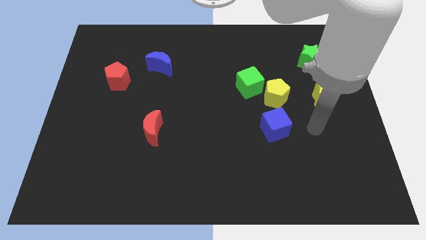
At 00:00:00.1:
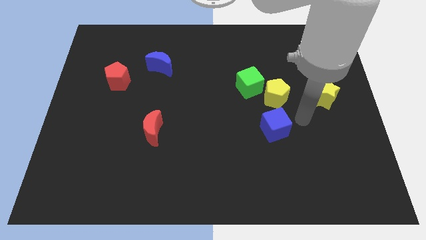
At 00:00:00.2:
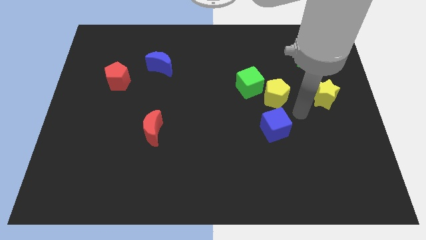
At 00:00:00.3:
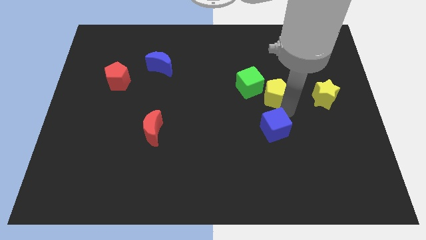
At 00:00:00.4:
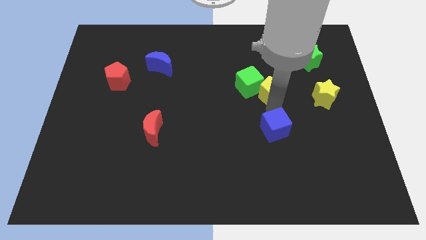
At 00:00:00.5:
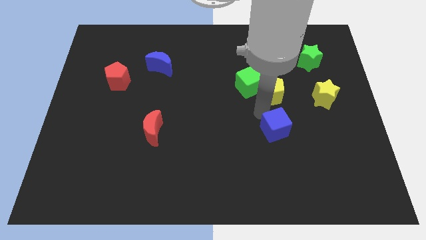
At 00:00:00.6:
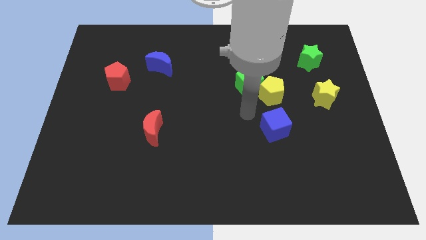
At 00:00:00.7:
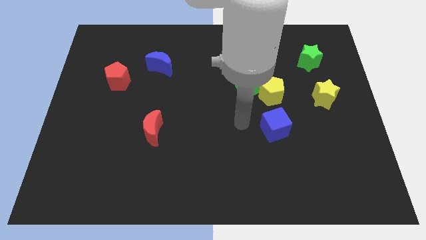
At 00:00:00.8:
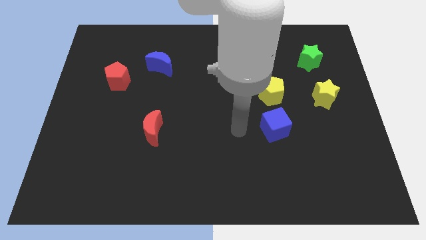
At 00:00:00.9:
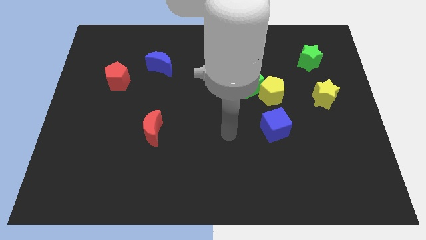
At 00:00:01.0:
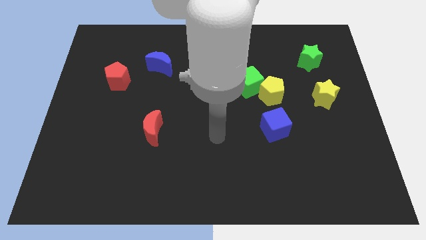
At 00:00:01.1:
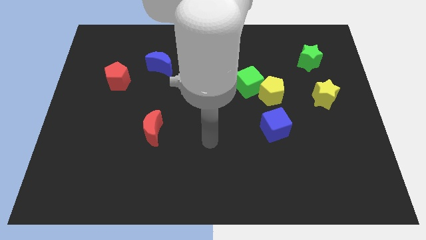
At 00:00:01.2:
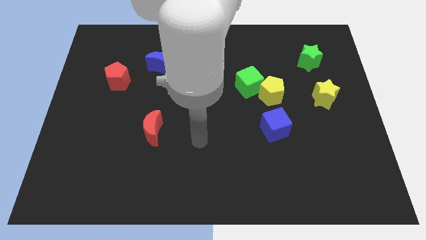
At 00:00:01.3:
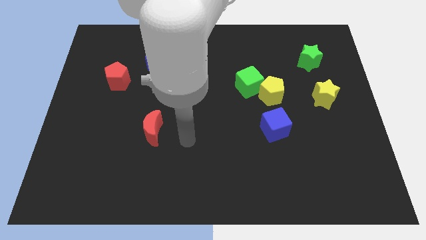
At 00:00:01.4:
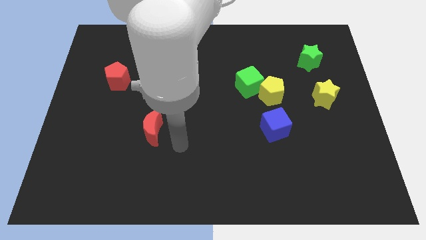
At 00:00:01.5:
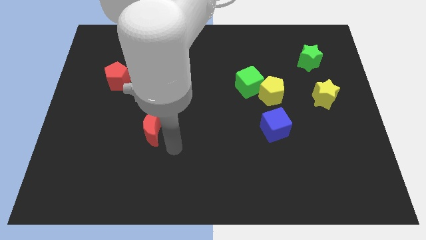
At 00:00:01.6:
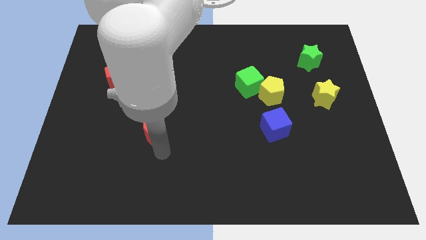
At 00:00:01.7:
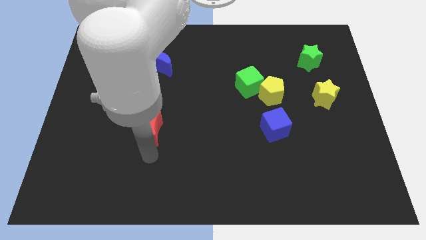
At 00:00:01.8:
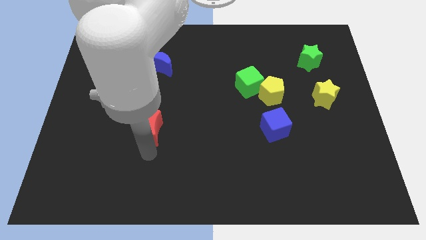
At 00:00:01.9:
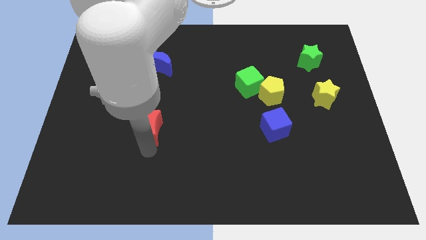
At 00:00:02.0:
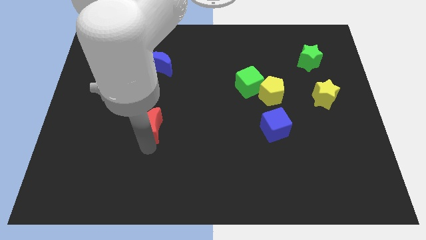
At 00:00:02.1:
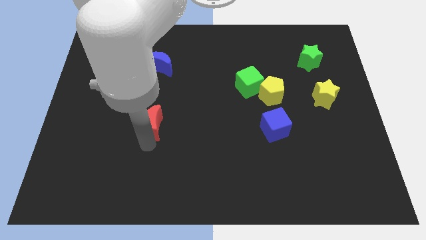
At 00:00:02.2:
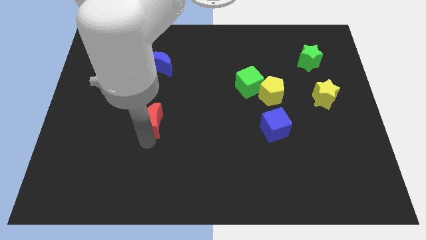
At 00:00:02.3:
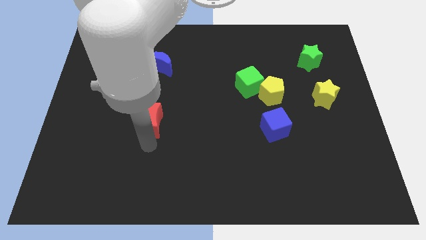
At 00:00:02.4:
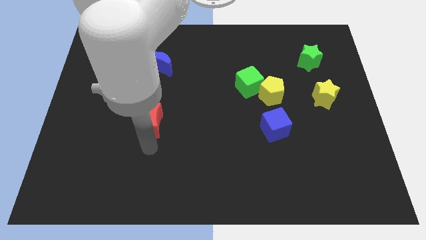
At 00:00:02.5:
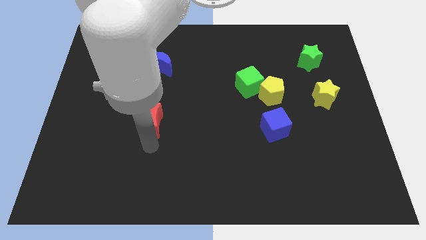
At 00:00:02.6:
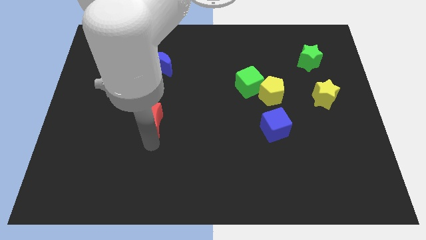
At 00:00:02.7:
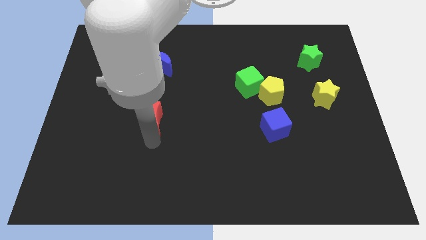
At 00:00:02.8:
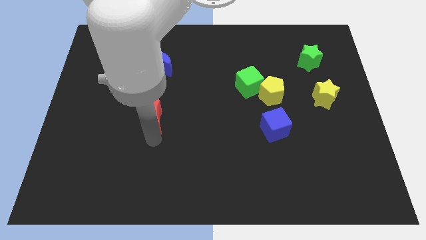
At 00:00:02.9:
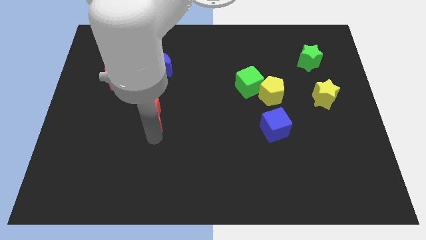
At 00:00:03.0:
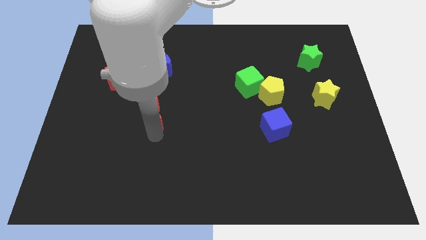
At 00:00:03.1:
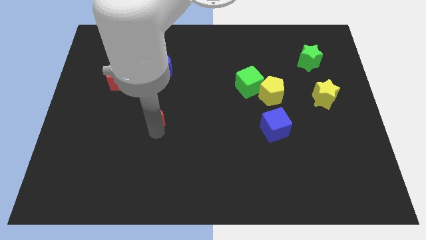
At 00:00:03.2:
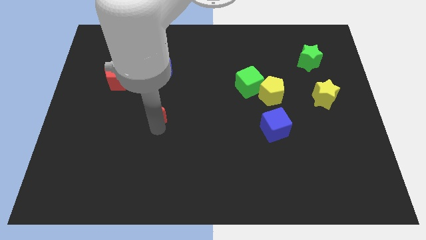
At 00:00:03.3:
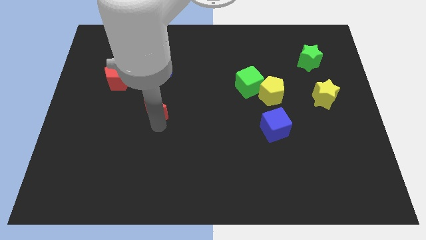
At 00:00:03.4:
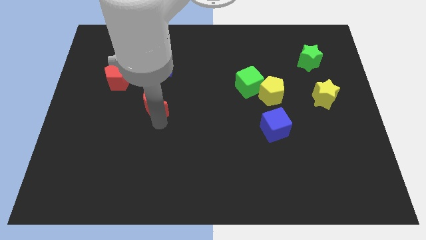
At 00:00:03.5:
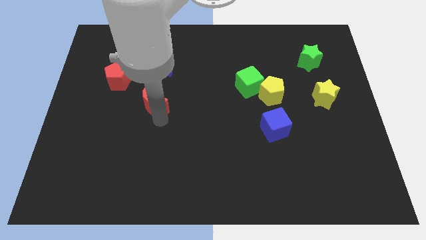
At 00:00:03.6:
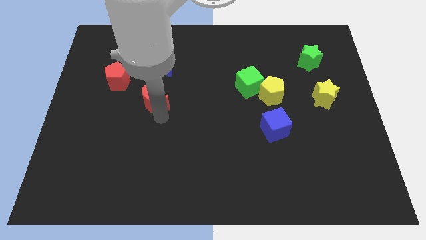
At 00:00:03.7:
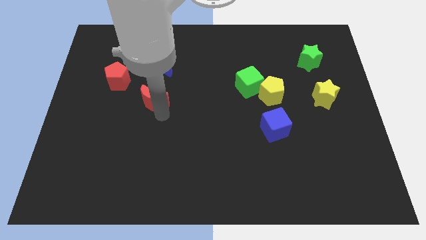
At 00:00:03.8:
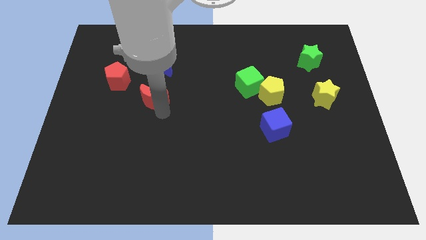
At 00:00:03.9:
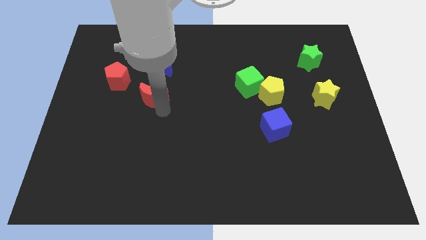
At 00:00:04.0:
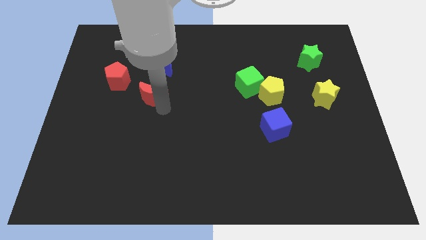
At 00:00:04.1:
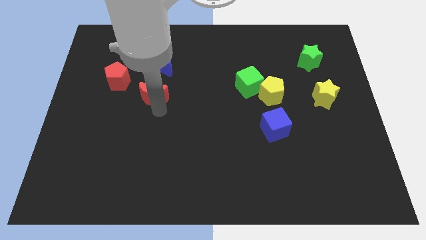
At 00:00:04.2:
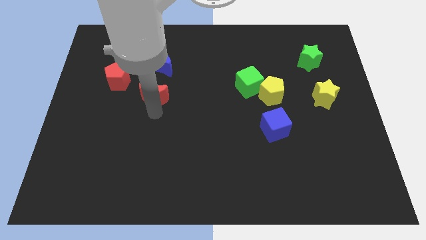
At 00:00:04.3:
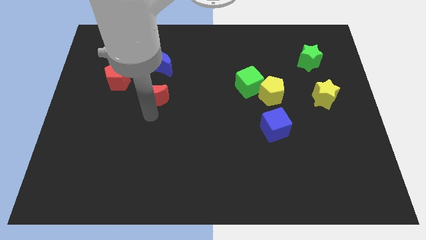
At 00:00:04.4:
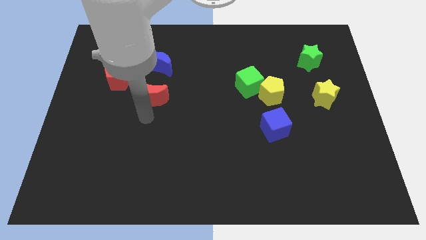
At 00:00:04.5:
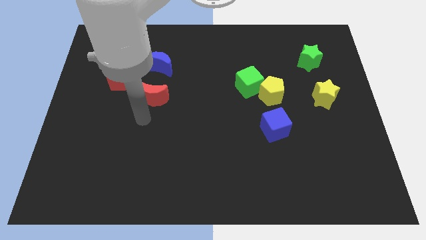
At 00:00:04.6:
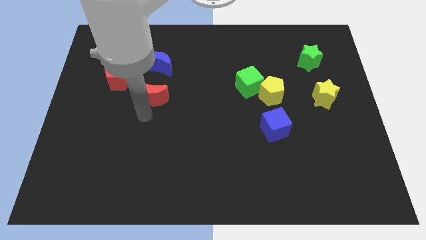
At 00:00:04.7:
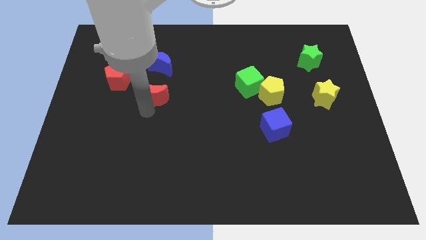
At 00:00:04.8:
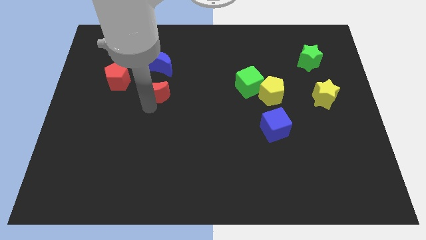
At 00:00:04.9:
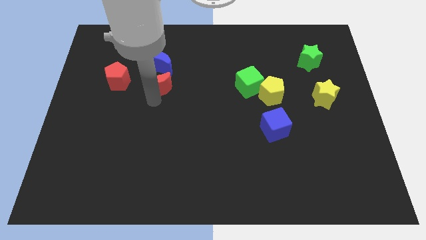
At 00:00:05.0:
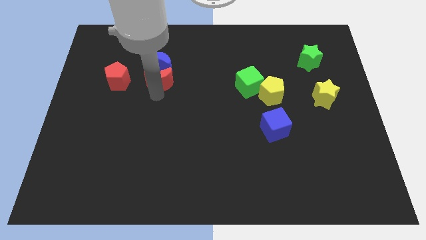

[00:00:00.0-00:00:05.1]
put the red moon to the blue moon

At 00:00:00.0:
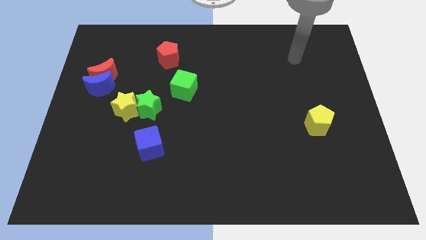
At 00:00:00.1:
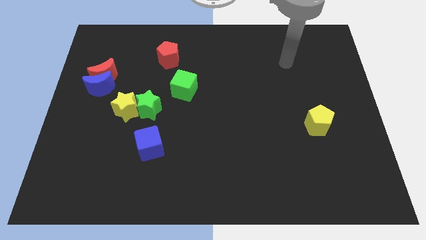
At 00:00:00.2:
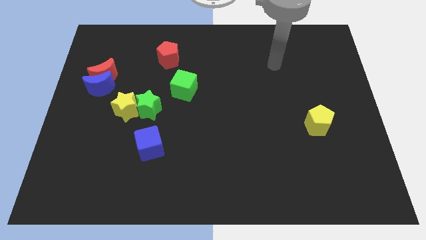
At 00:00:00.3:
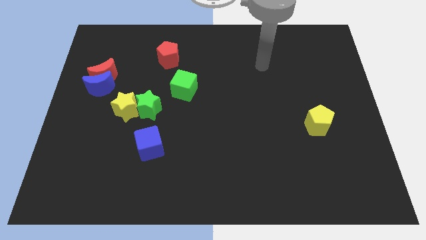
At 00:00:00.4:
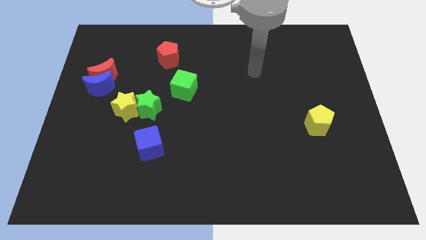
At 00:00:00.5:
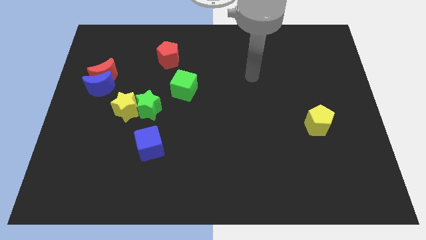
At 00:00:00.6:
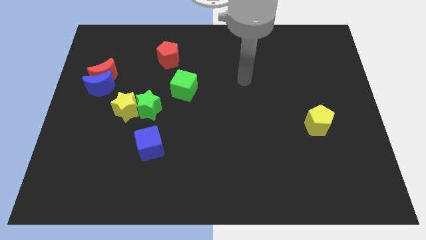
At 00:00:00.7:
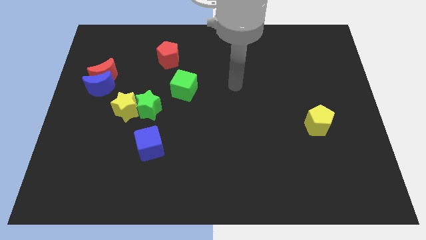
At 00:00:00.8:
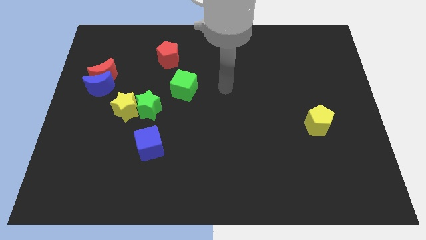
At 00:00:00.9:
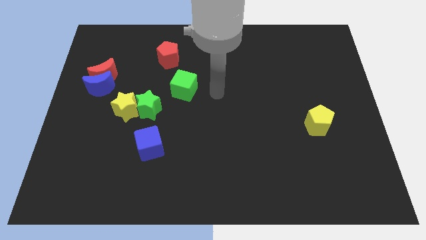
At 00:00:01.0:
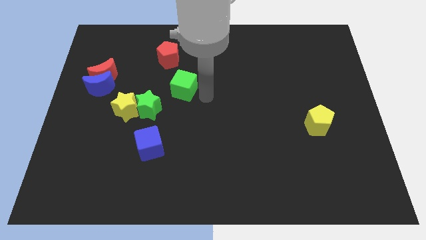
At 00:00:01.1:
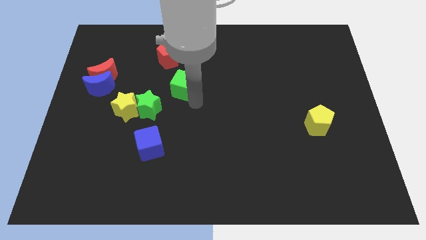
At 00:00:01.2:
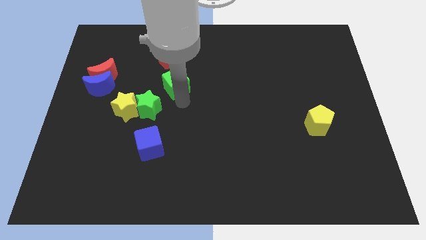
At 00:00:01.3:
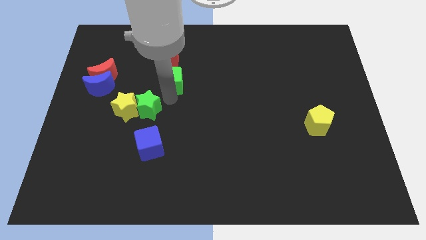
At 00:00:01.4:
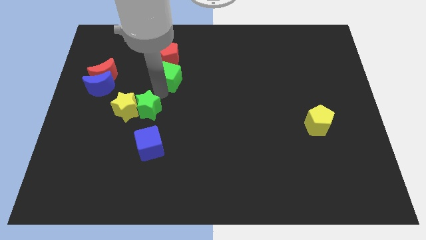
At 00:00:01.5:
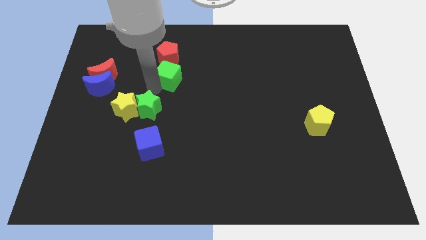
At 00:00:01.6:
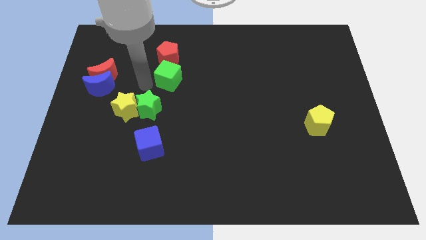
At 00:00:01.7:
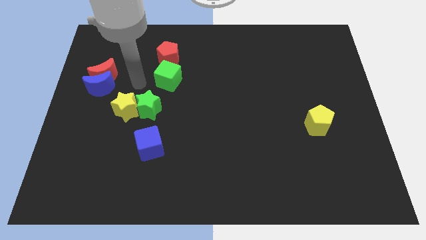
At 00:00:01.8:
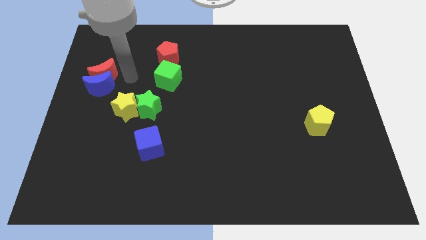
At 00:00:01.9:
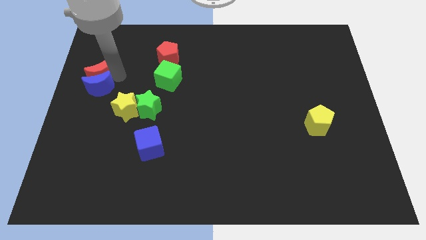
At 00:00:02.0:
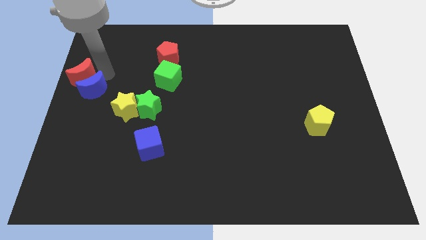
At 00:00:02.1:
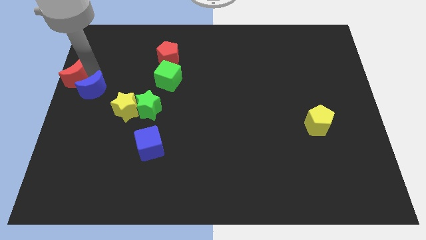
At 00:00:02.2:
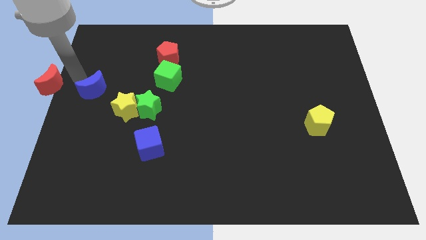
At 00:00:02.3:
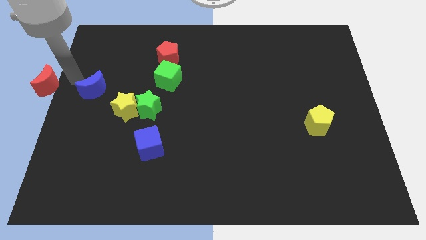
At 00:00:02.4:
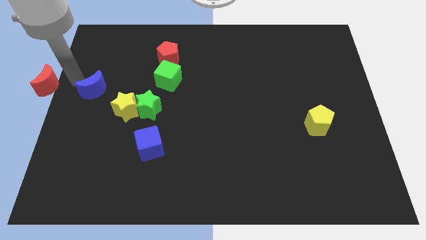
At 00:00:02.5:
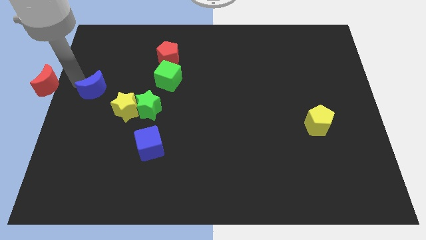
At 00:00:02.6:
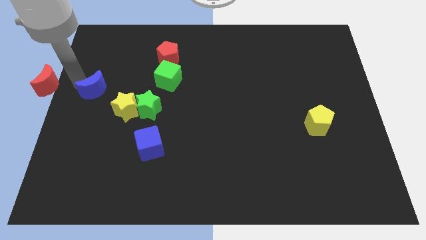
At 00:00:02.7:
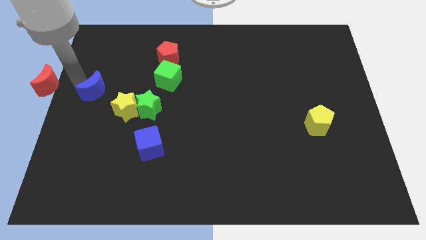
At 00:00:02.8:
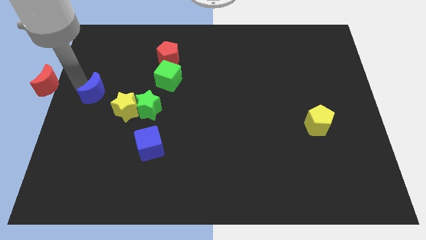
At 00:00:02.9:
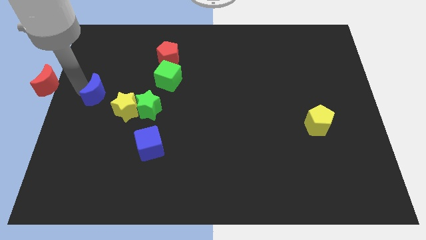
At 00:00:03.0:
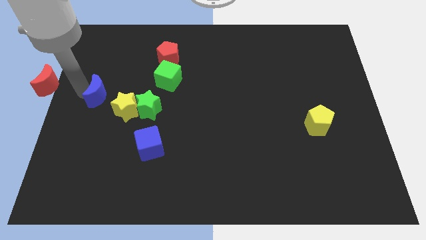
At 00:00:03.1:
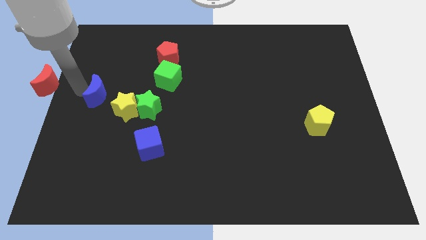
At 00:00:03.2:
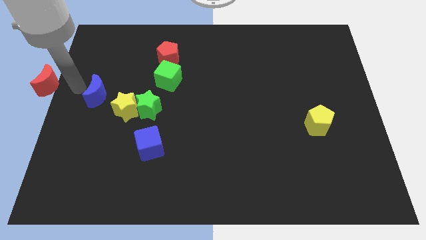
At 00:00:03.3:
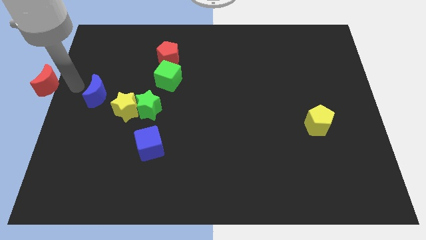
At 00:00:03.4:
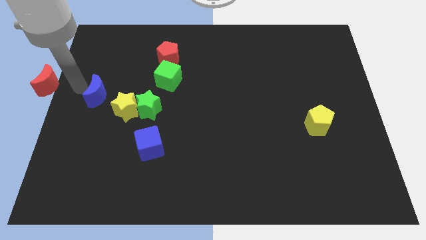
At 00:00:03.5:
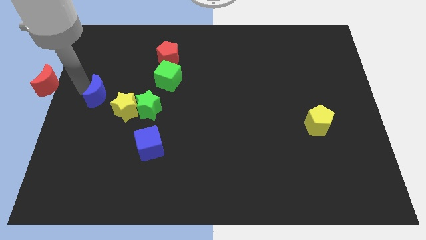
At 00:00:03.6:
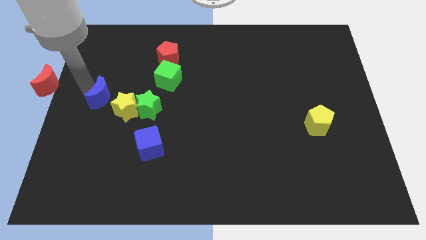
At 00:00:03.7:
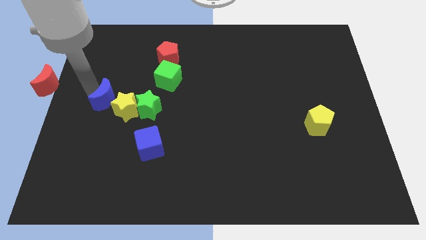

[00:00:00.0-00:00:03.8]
put the blue moon to the yellow star
